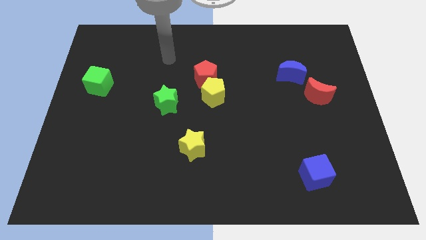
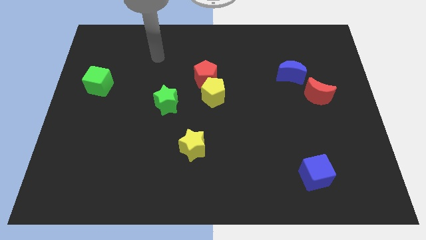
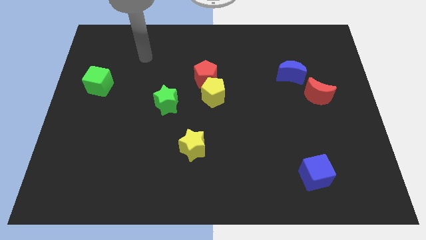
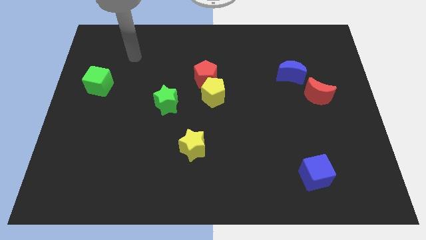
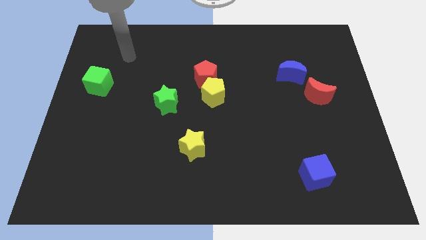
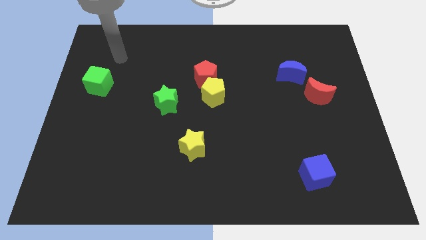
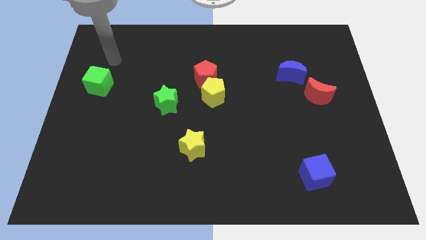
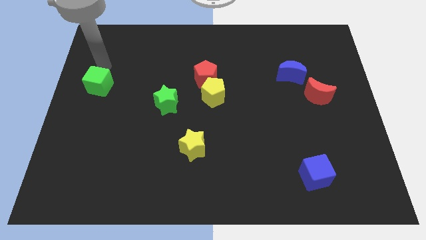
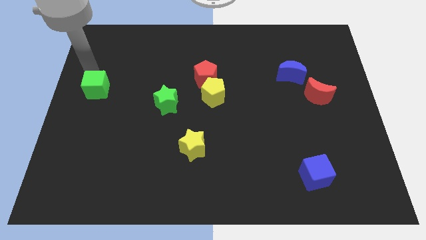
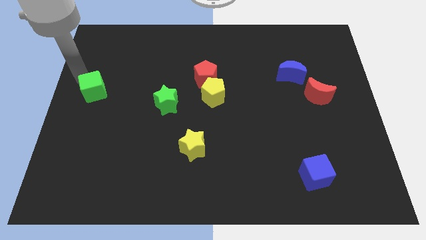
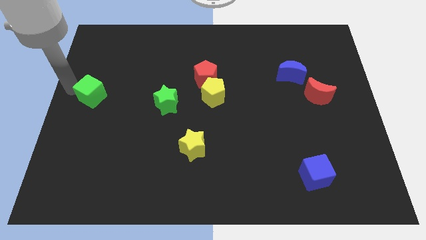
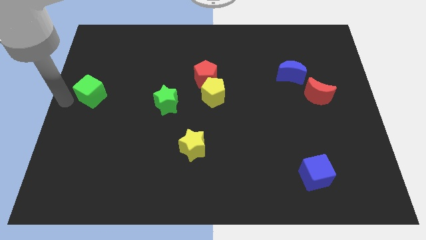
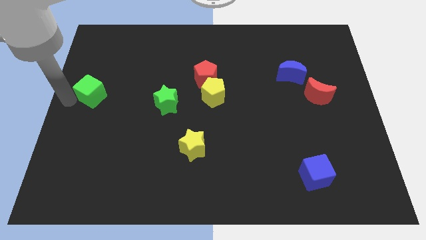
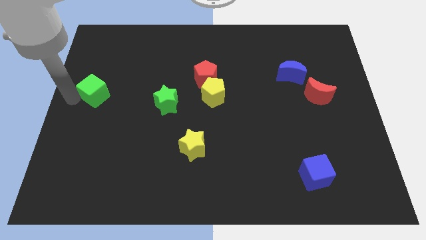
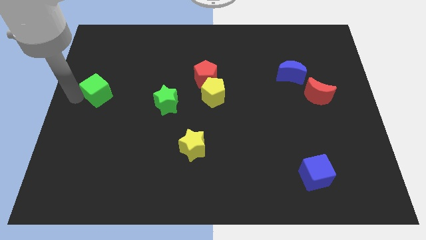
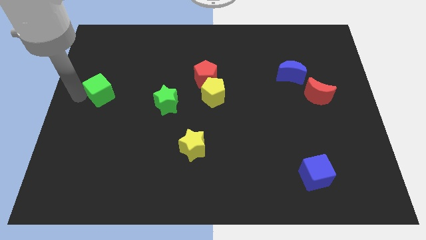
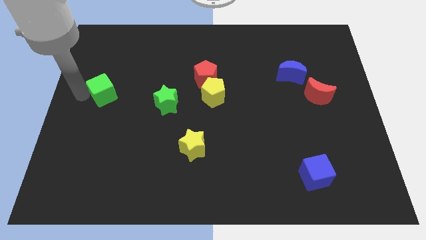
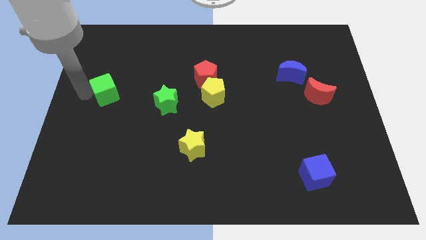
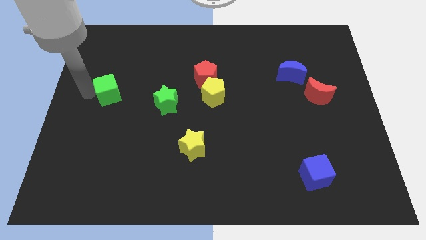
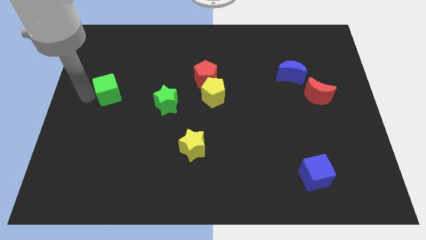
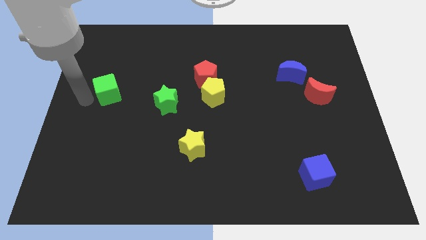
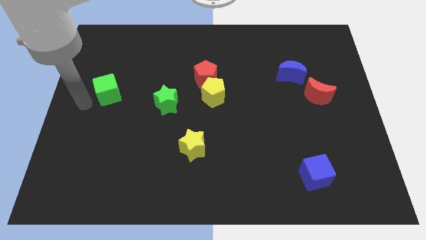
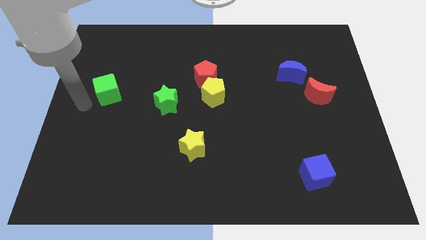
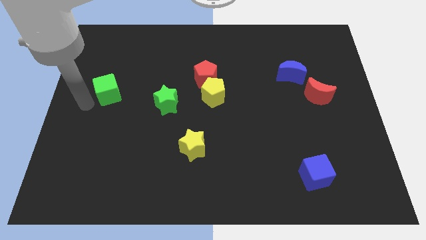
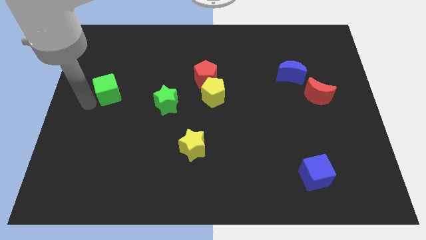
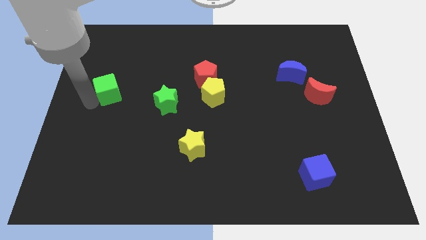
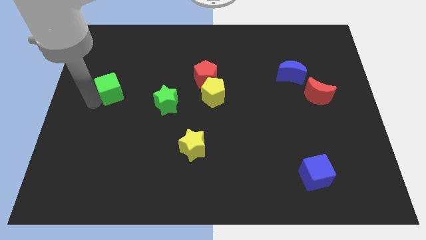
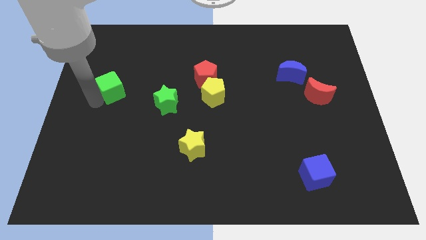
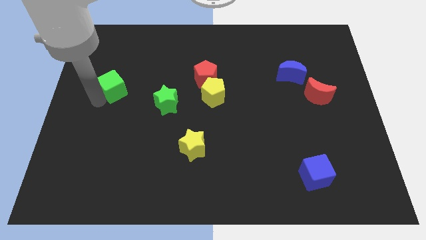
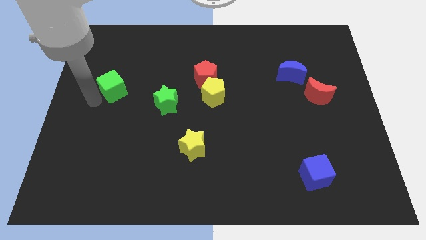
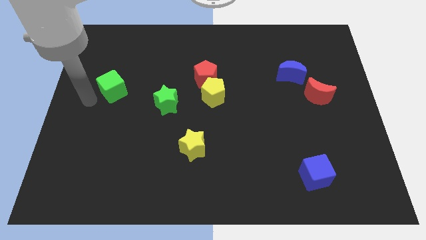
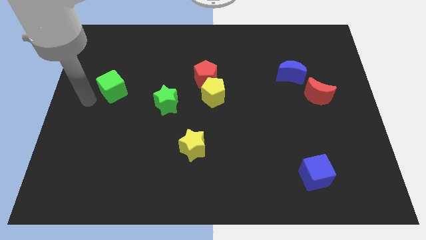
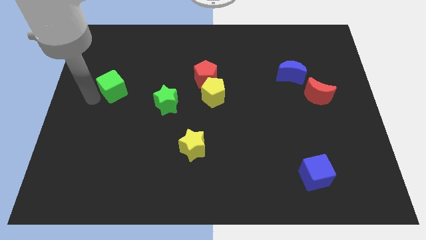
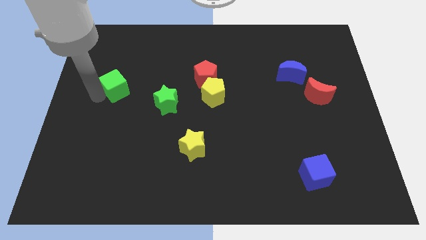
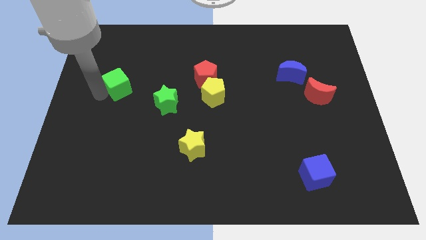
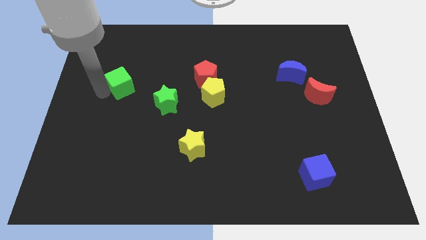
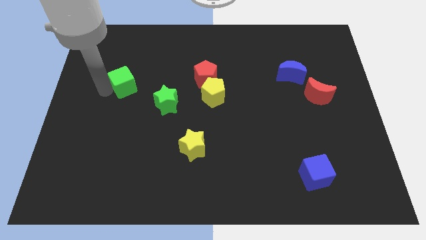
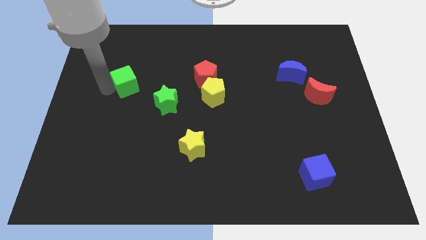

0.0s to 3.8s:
slide the green cube a little bit right

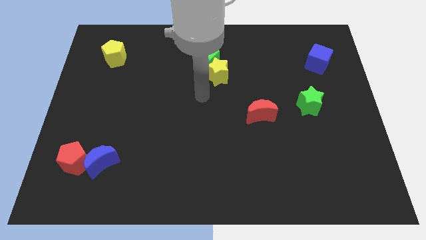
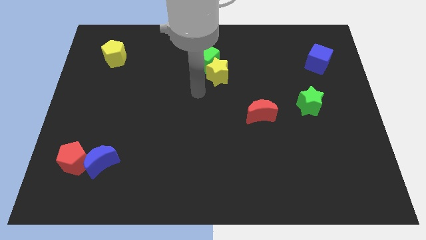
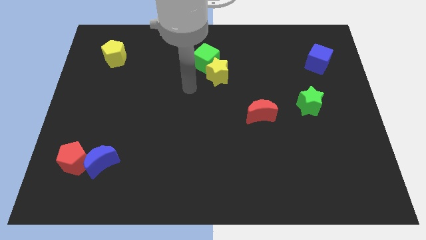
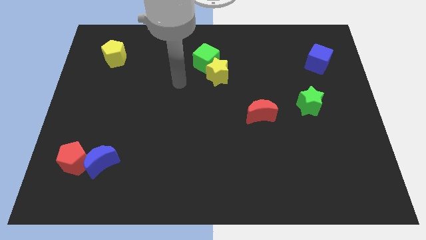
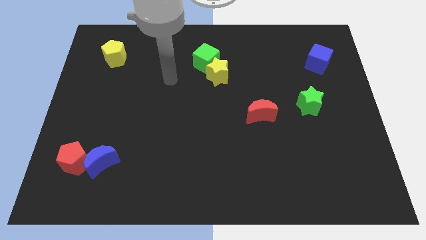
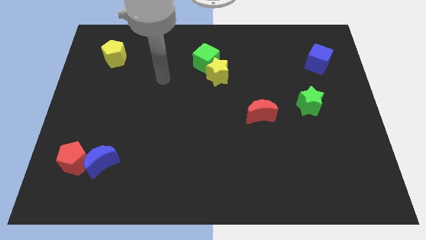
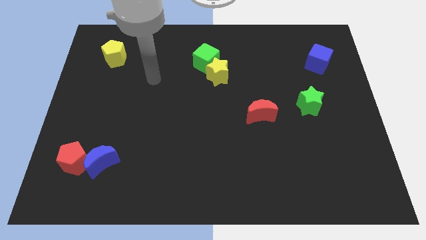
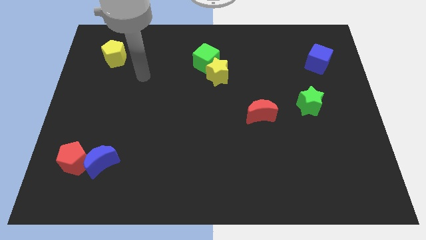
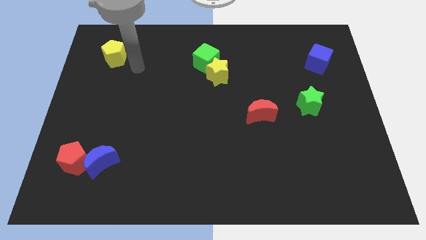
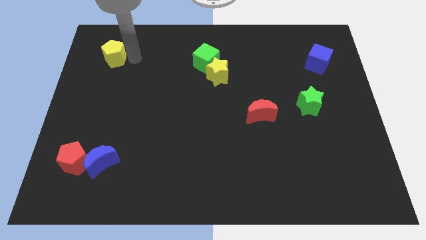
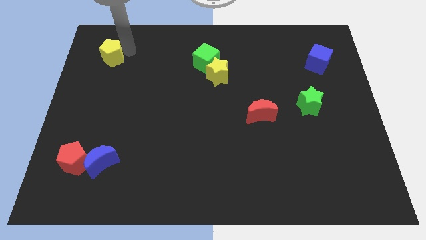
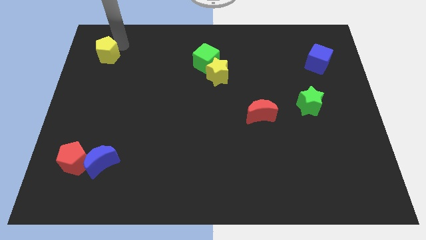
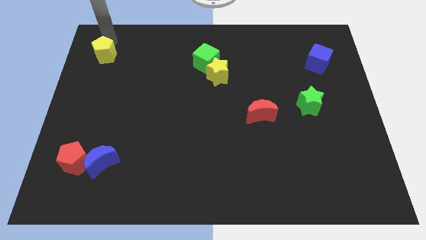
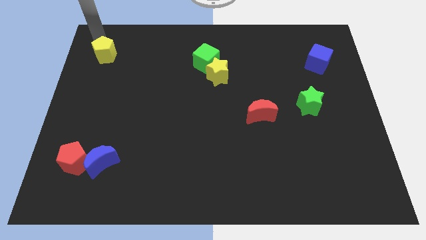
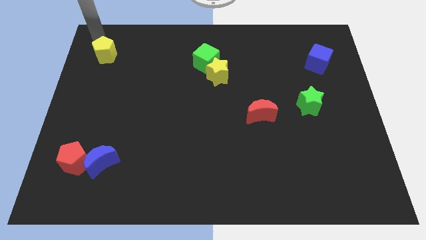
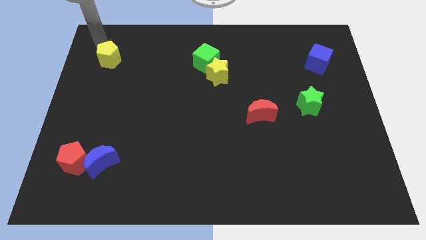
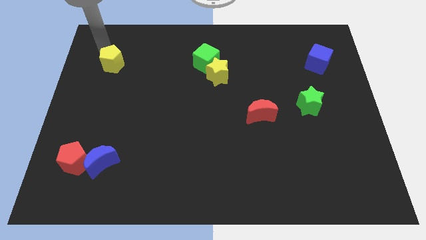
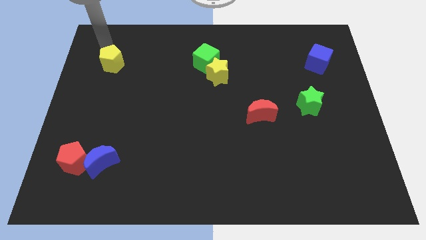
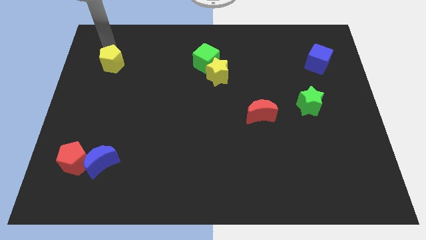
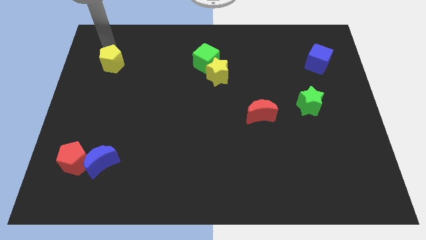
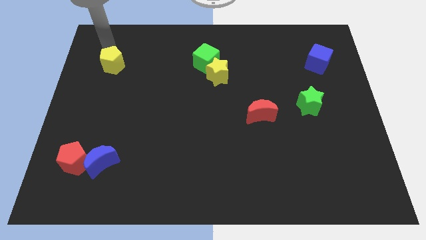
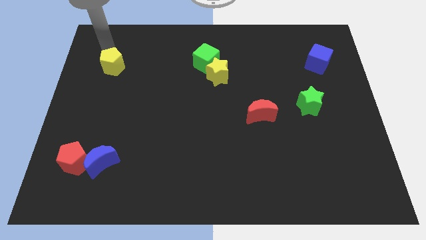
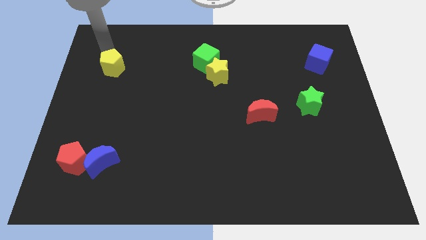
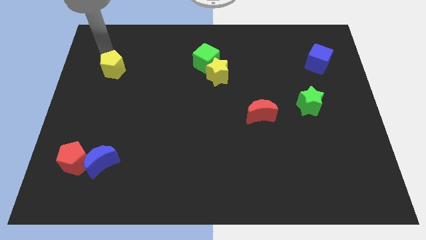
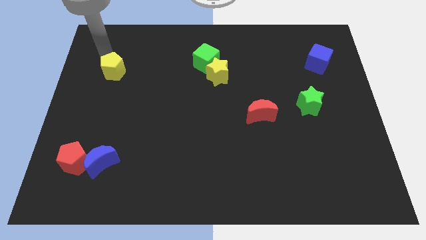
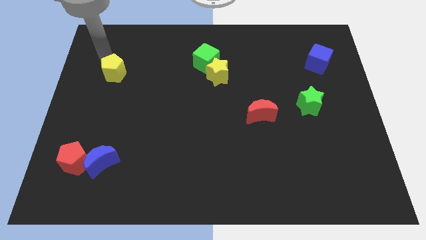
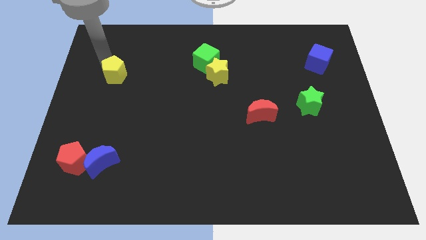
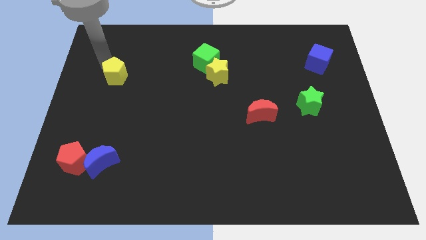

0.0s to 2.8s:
slightly push the yellow pentagon down

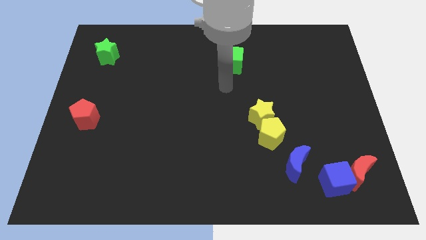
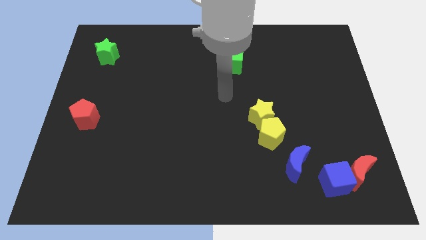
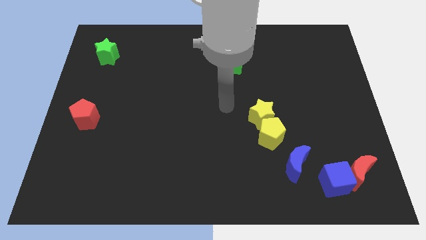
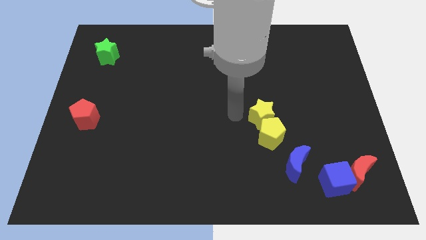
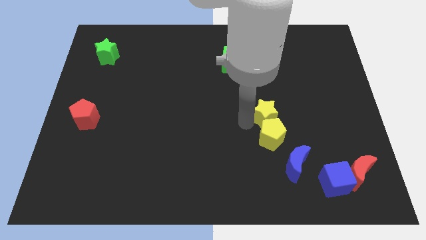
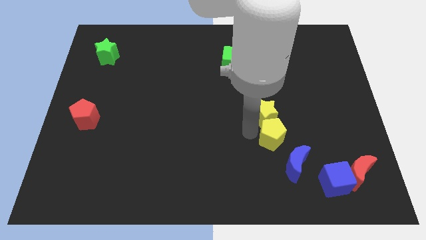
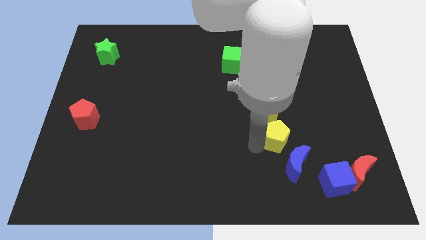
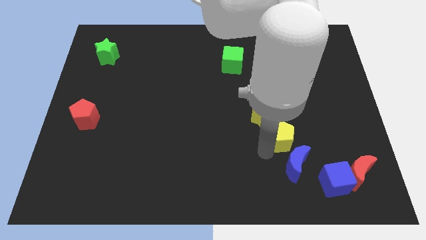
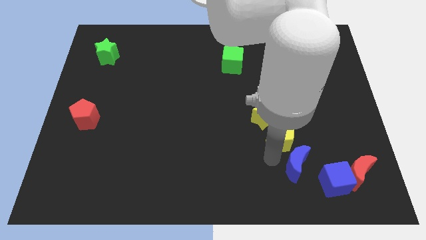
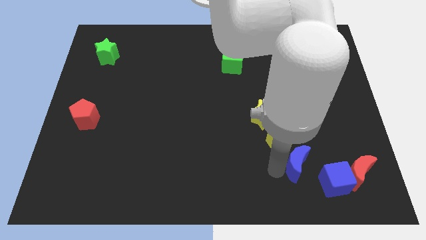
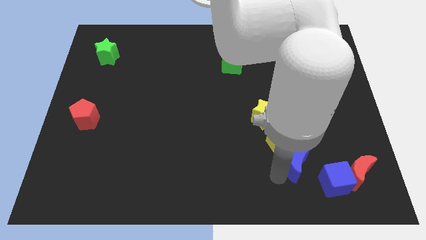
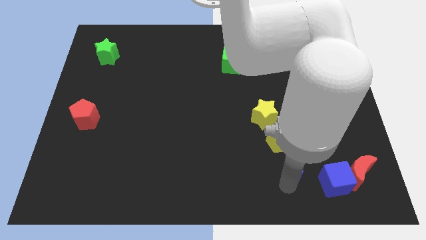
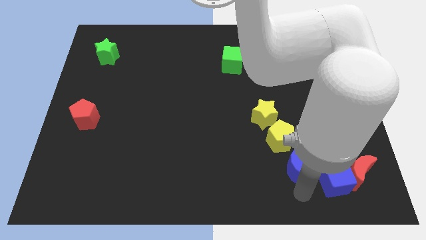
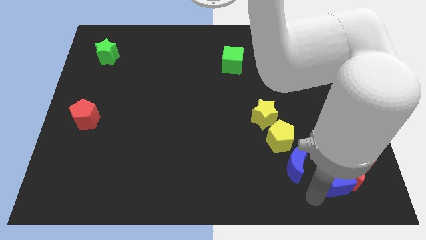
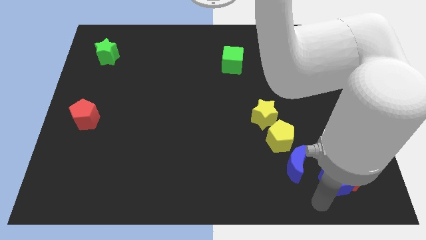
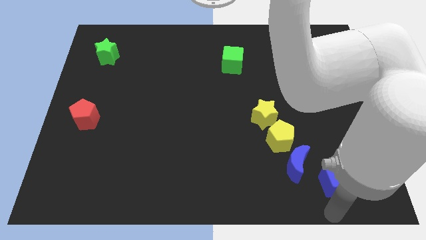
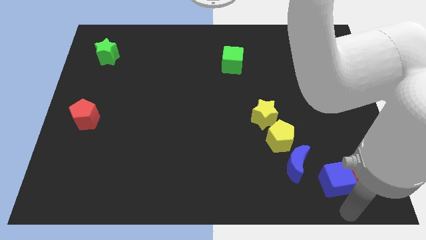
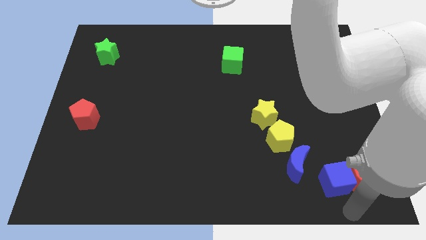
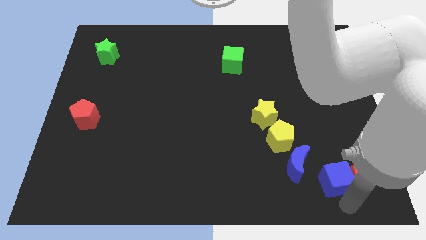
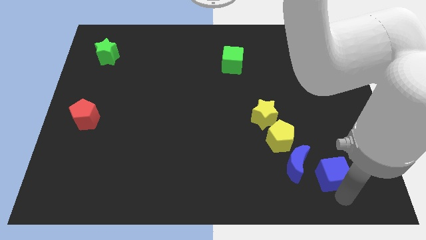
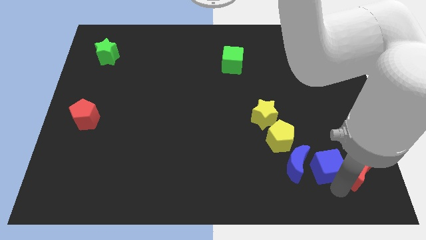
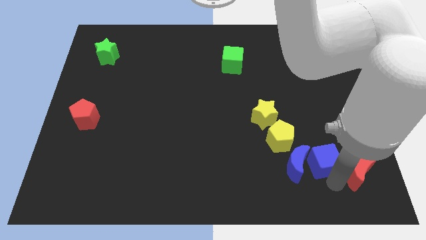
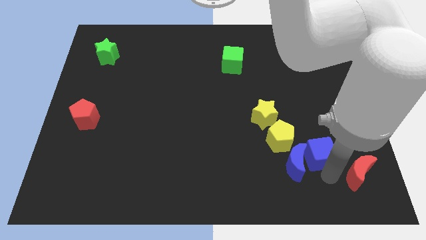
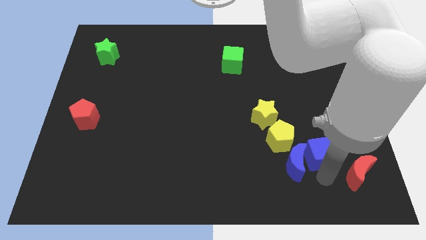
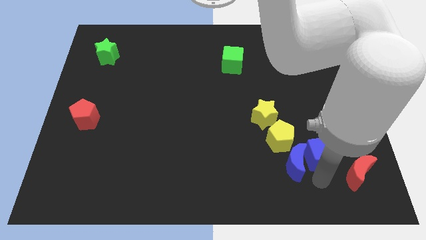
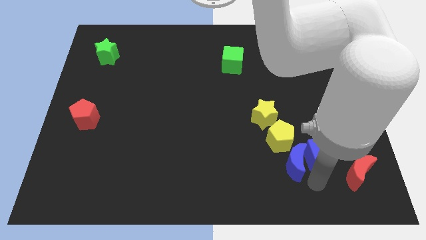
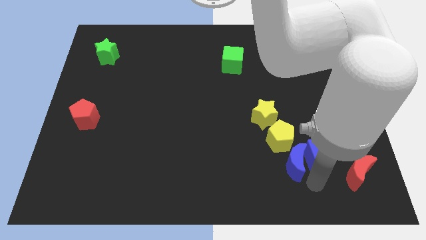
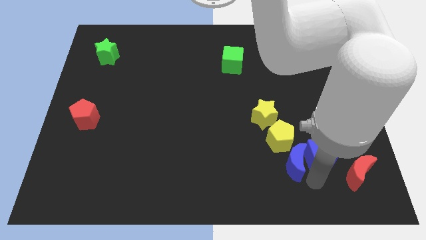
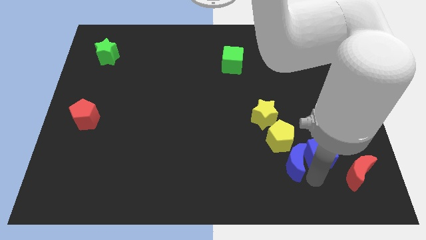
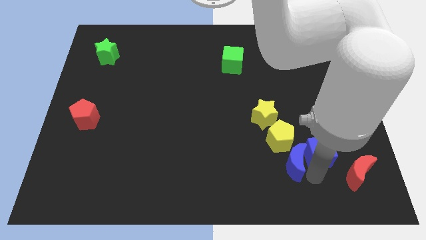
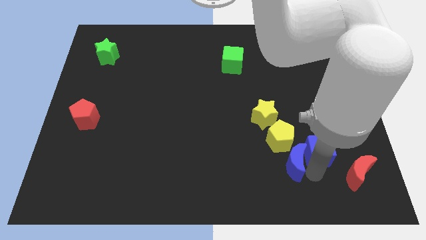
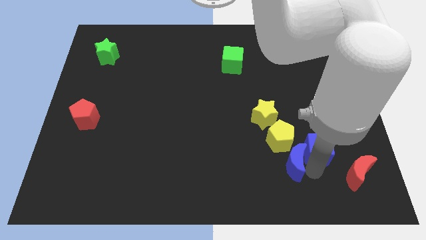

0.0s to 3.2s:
move the blue cube upwards a little bit
